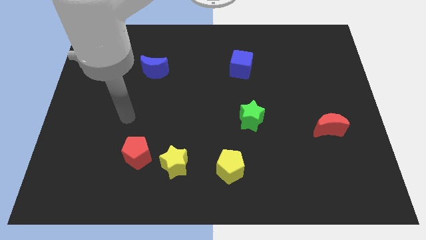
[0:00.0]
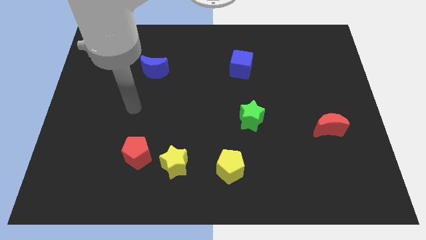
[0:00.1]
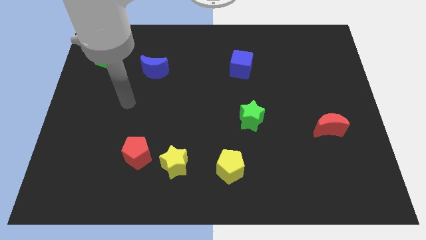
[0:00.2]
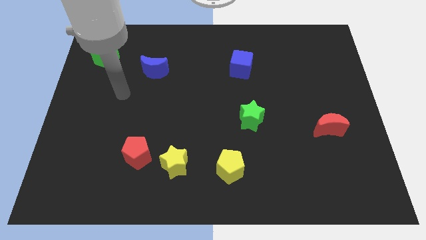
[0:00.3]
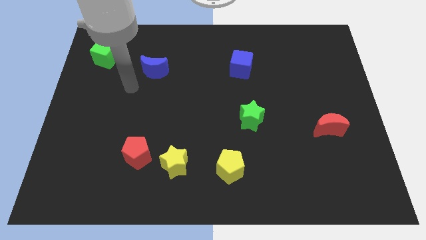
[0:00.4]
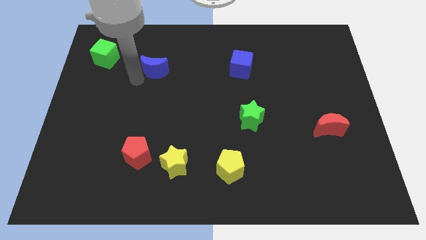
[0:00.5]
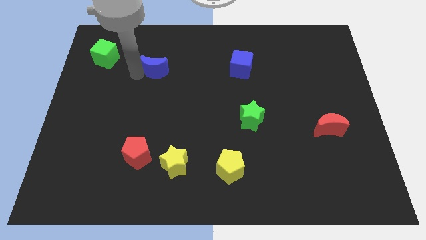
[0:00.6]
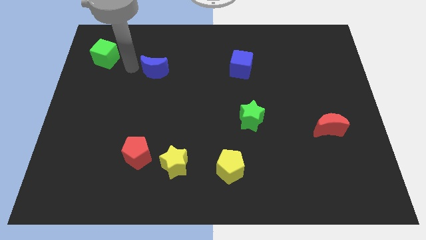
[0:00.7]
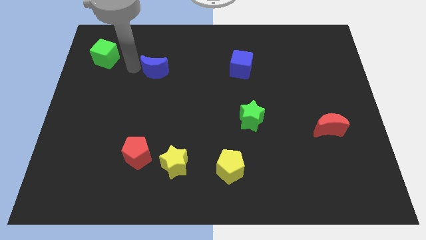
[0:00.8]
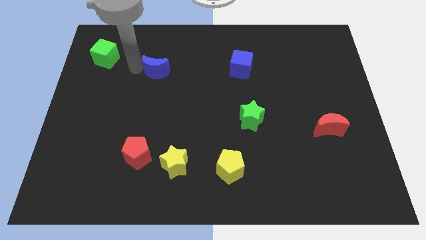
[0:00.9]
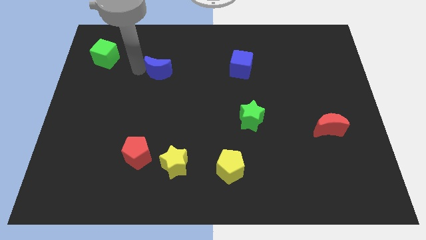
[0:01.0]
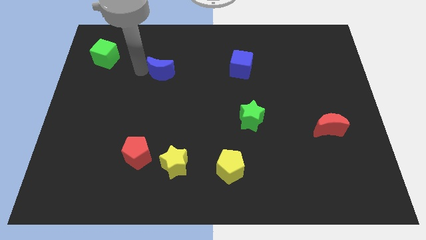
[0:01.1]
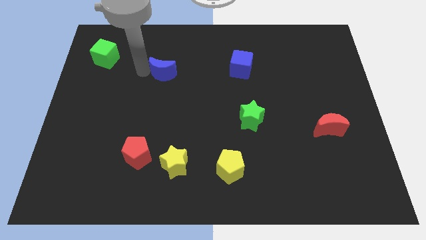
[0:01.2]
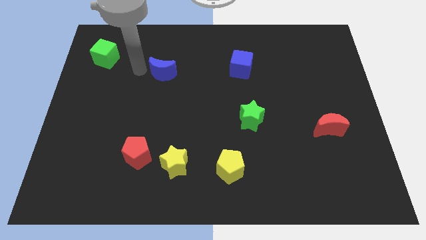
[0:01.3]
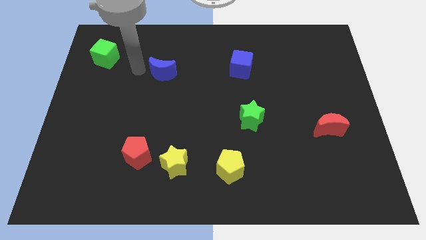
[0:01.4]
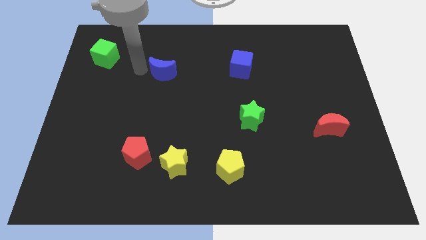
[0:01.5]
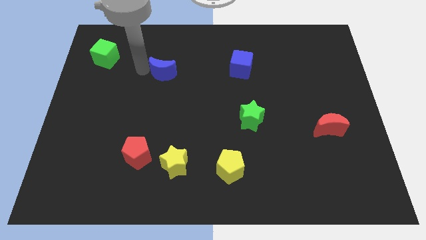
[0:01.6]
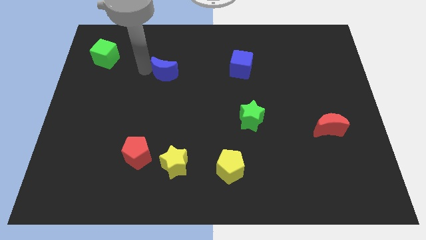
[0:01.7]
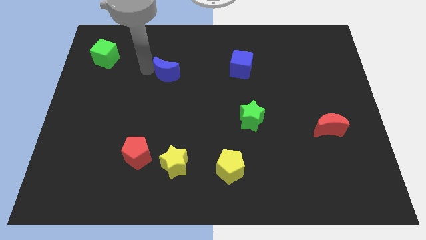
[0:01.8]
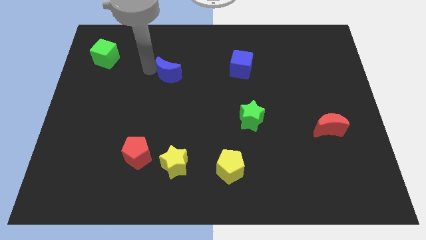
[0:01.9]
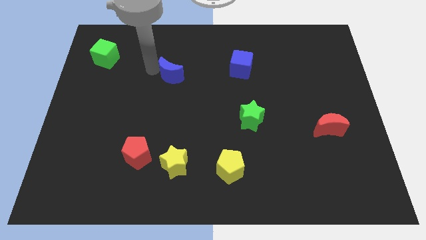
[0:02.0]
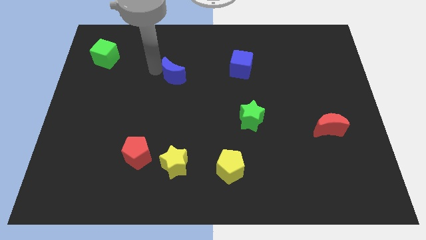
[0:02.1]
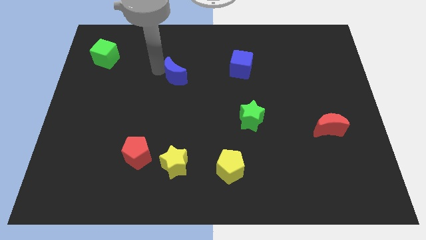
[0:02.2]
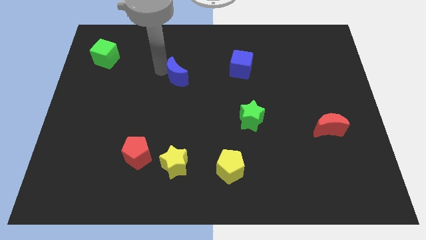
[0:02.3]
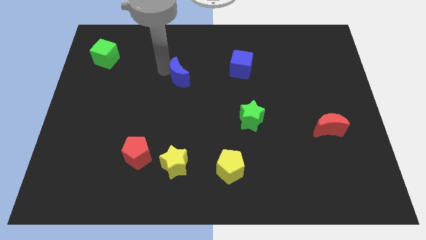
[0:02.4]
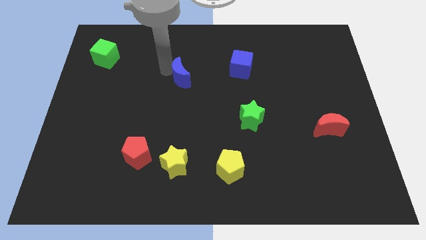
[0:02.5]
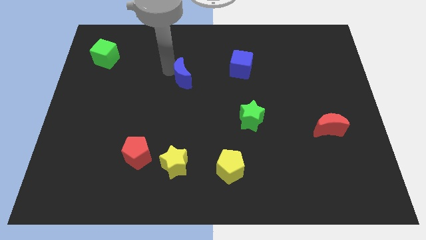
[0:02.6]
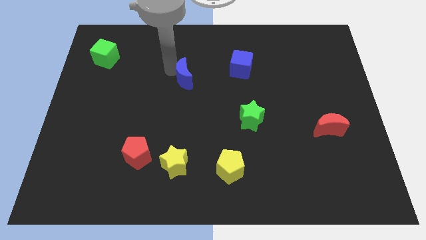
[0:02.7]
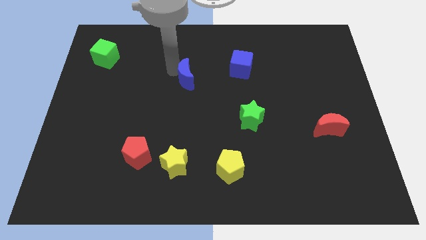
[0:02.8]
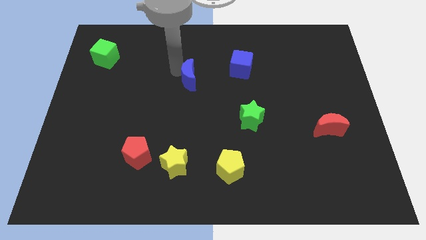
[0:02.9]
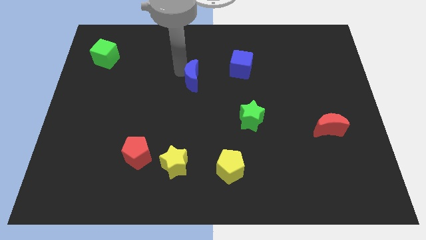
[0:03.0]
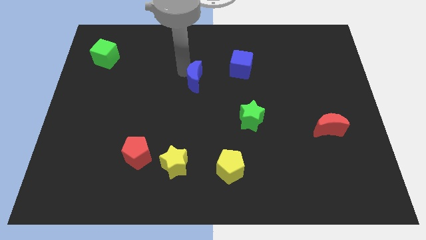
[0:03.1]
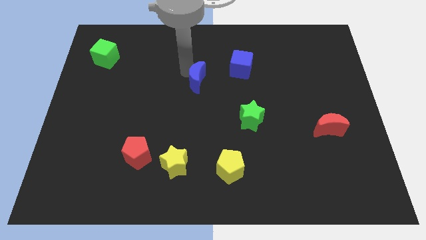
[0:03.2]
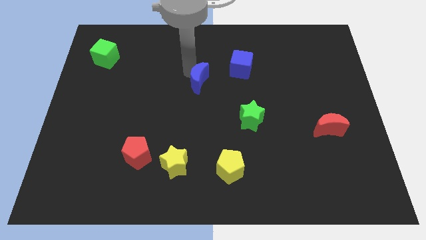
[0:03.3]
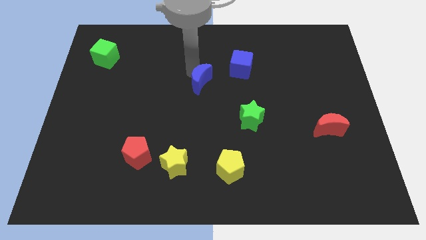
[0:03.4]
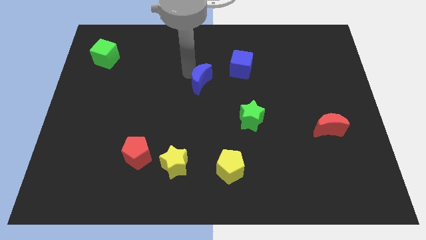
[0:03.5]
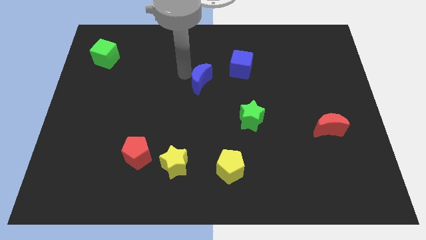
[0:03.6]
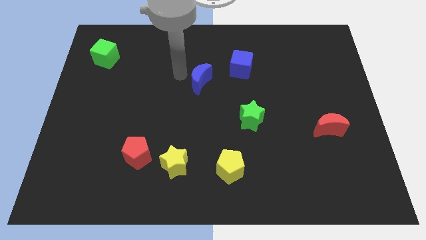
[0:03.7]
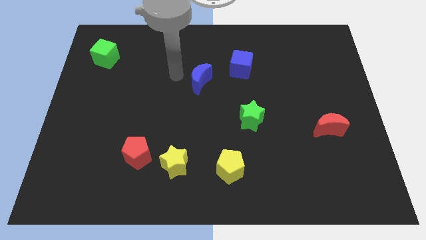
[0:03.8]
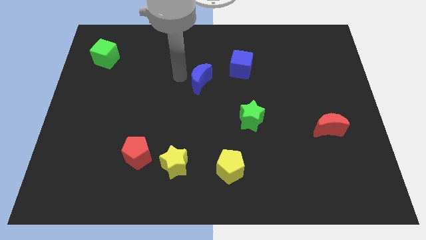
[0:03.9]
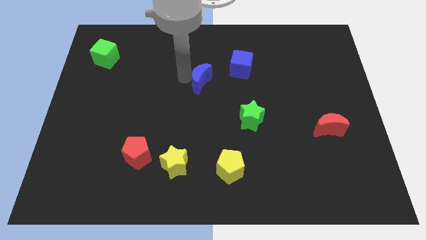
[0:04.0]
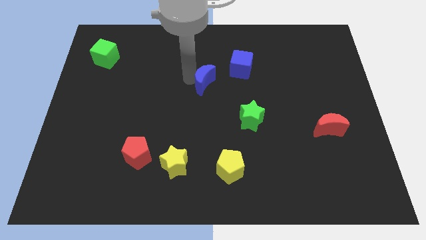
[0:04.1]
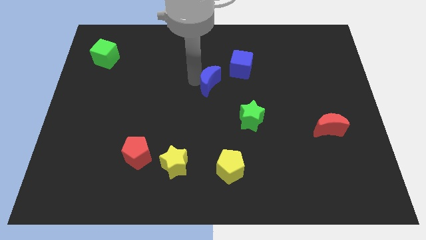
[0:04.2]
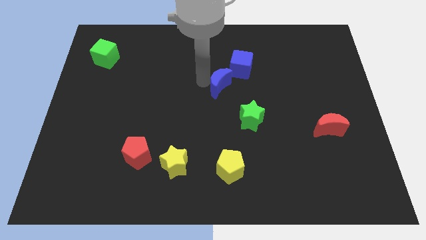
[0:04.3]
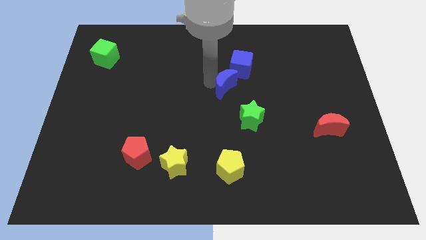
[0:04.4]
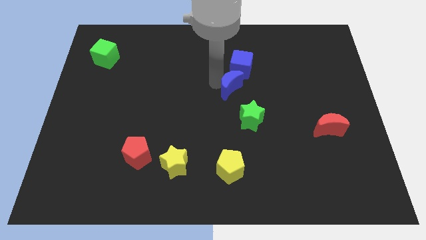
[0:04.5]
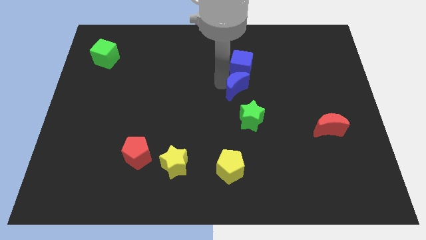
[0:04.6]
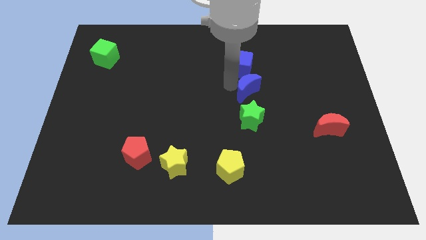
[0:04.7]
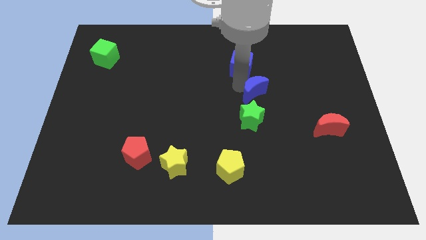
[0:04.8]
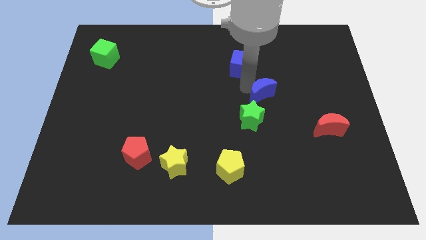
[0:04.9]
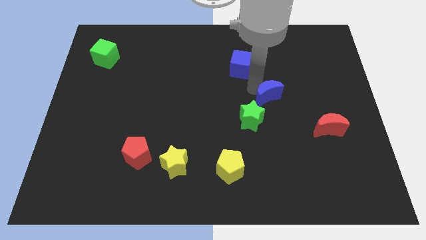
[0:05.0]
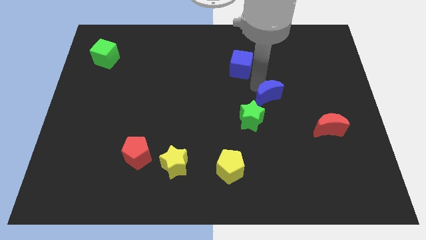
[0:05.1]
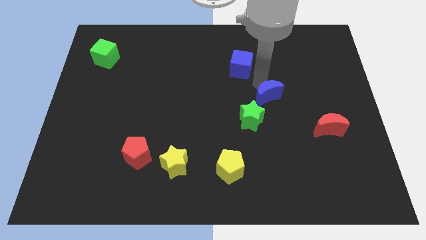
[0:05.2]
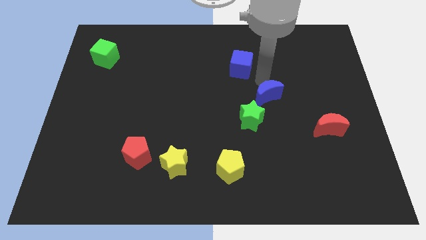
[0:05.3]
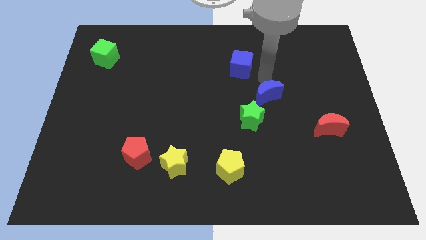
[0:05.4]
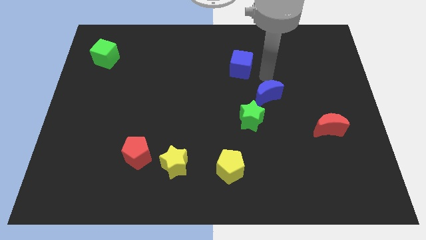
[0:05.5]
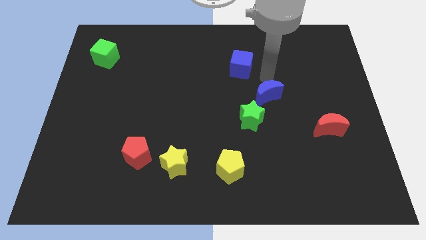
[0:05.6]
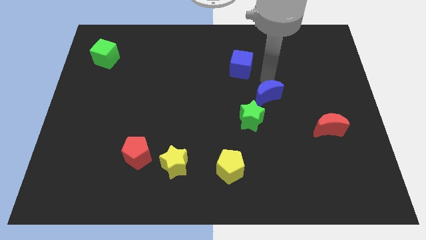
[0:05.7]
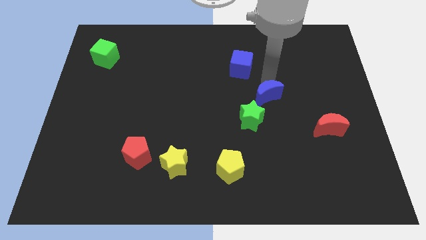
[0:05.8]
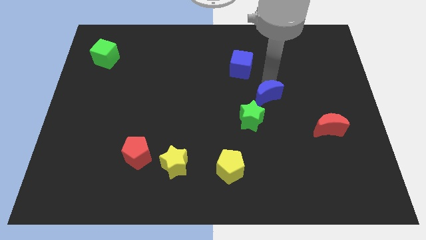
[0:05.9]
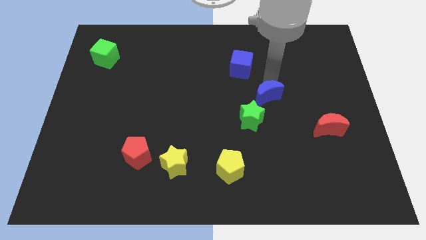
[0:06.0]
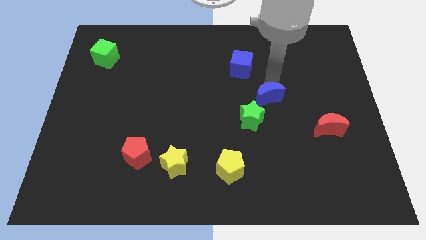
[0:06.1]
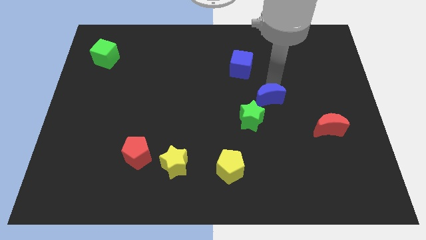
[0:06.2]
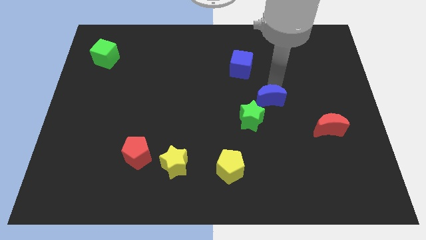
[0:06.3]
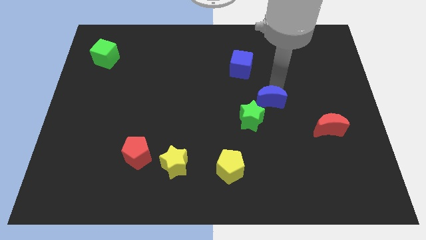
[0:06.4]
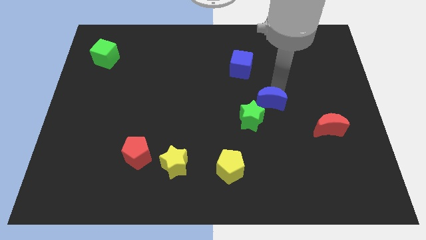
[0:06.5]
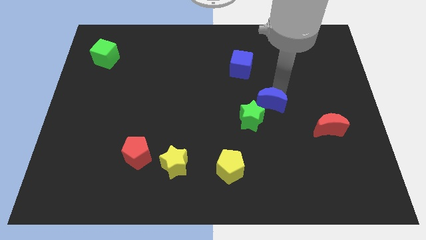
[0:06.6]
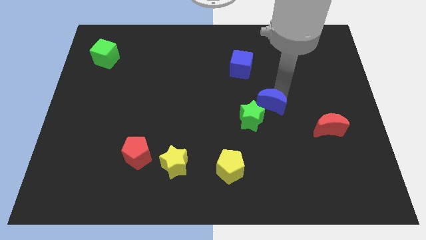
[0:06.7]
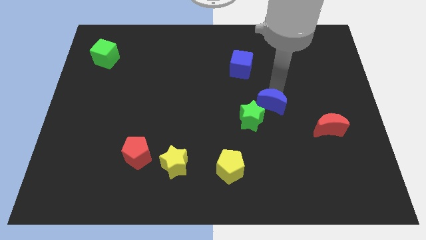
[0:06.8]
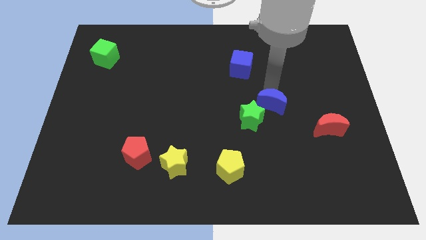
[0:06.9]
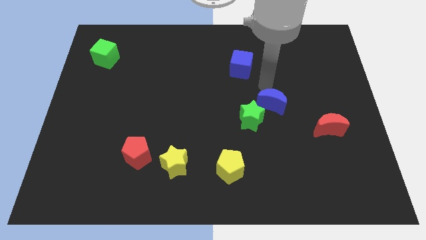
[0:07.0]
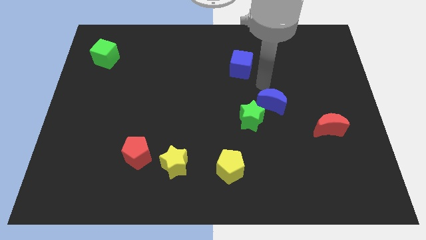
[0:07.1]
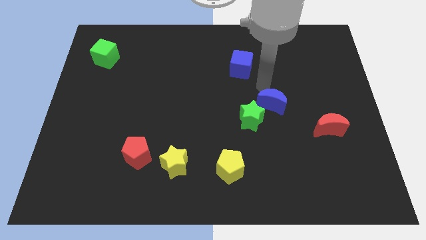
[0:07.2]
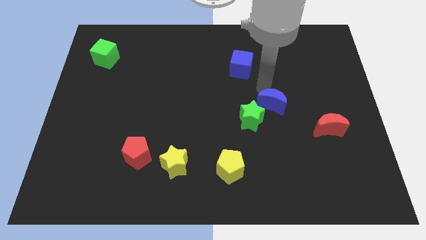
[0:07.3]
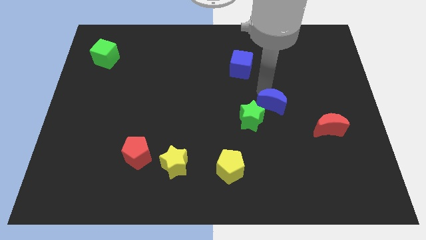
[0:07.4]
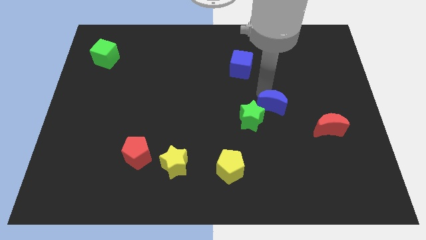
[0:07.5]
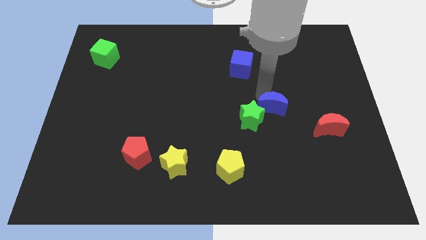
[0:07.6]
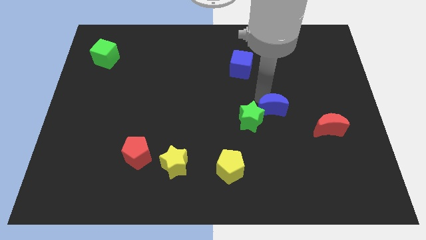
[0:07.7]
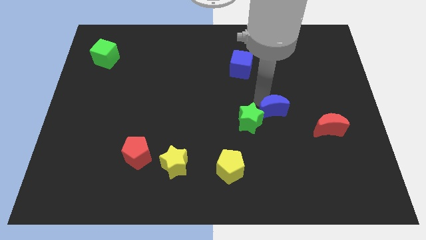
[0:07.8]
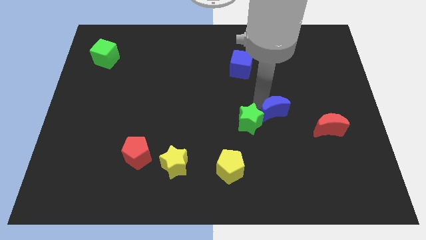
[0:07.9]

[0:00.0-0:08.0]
put the blue moon left of the red moon
